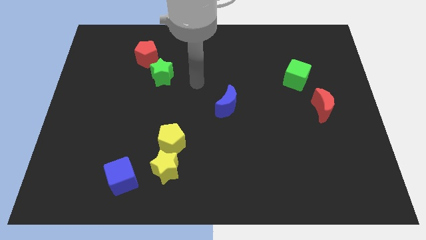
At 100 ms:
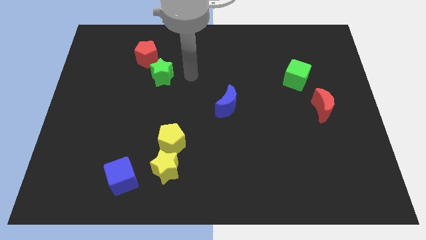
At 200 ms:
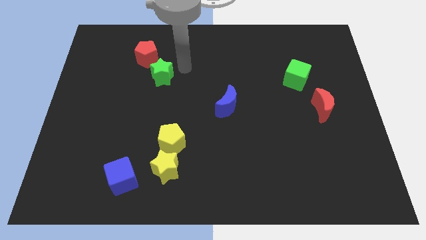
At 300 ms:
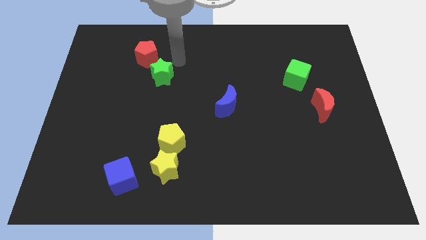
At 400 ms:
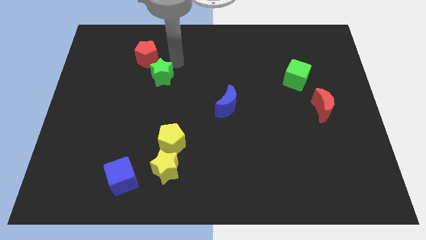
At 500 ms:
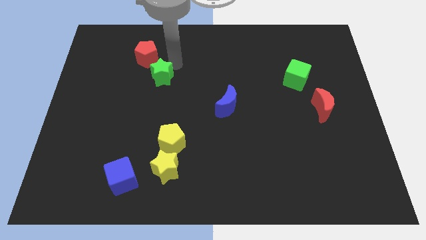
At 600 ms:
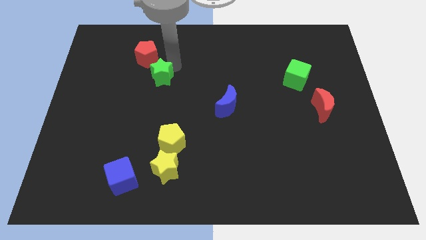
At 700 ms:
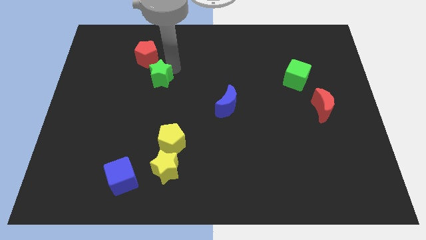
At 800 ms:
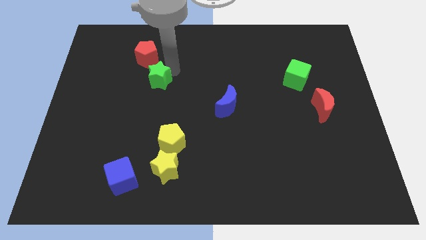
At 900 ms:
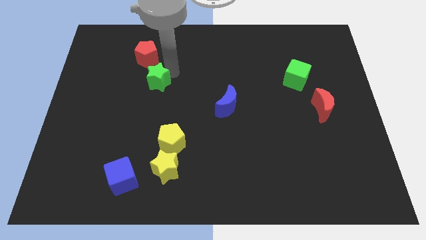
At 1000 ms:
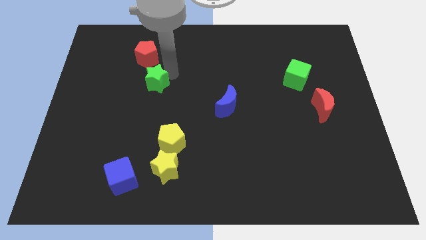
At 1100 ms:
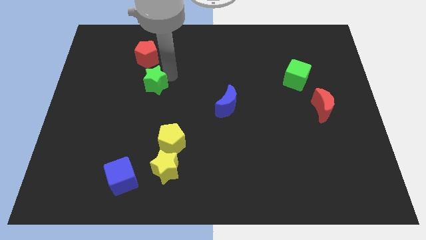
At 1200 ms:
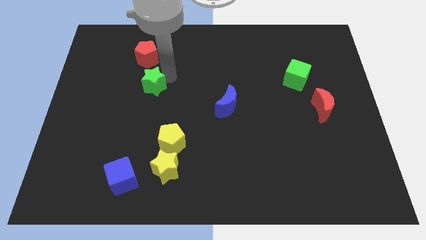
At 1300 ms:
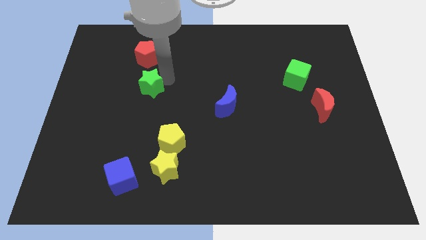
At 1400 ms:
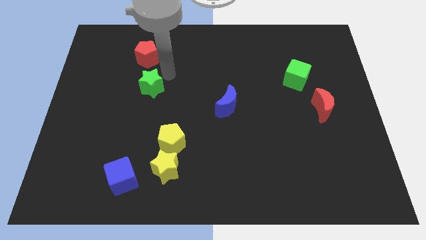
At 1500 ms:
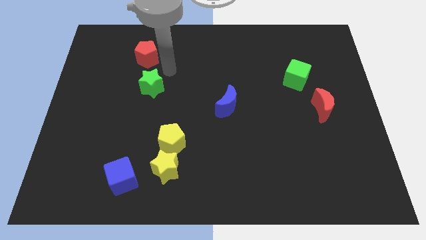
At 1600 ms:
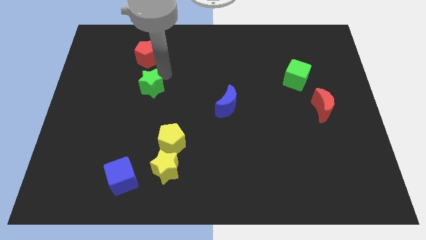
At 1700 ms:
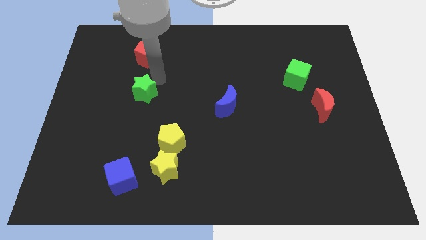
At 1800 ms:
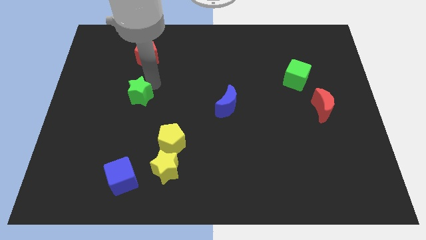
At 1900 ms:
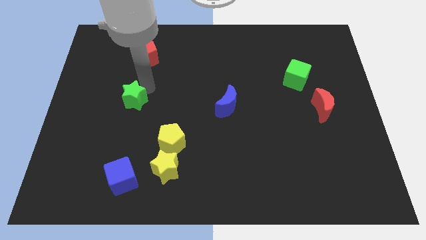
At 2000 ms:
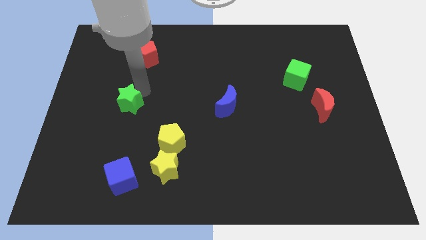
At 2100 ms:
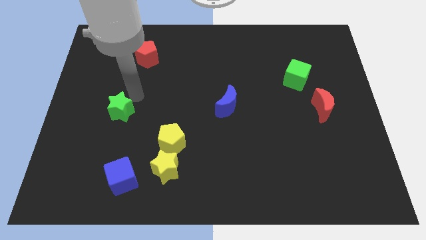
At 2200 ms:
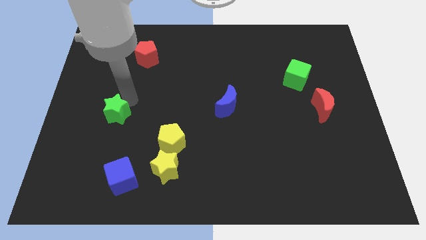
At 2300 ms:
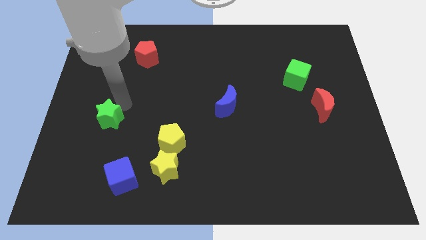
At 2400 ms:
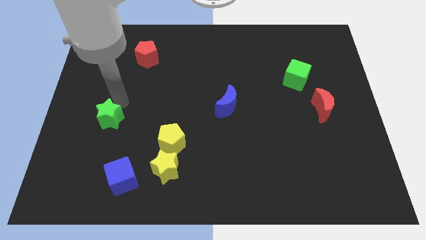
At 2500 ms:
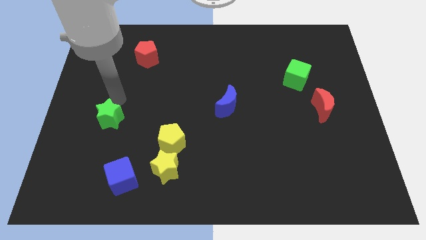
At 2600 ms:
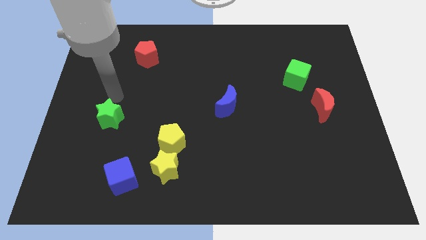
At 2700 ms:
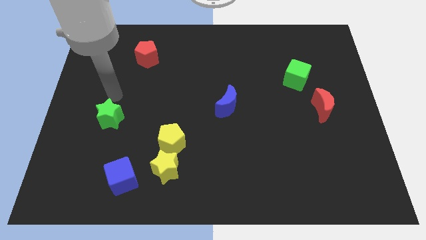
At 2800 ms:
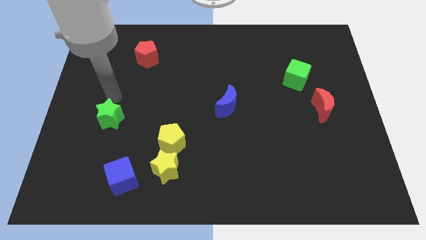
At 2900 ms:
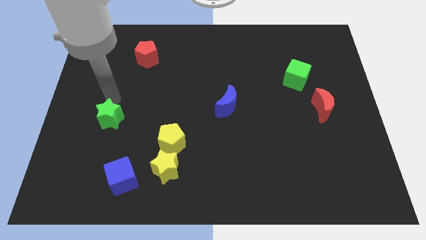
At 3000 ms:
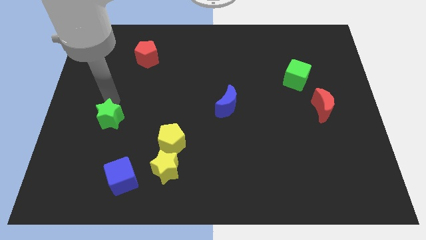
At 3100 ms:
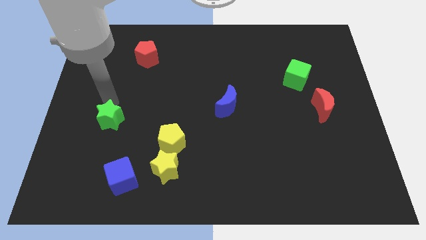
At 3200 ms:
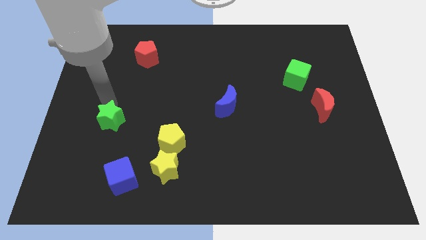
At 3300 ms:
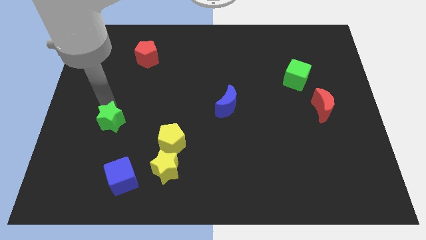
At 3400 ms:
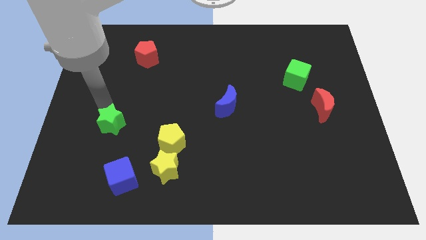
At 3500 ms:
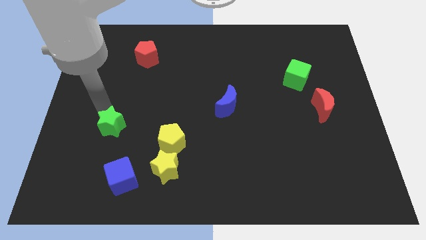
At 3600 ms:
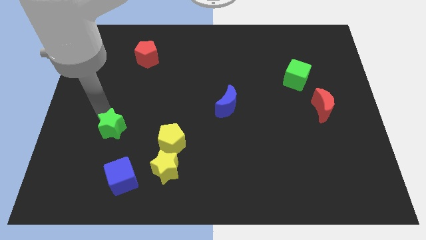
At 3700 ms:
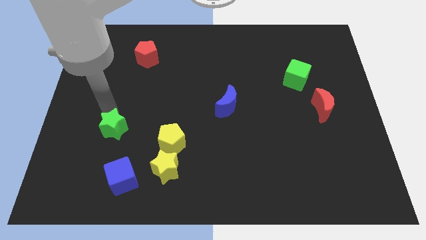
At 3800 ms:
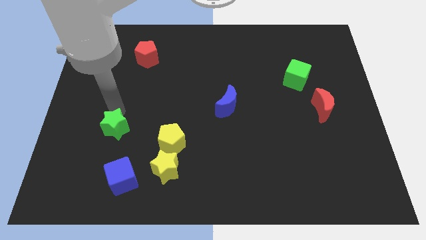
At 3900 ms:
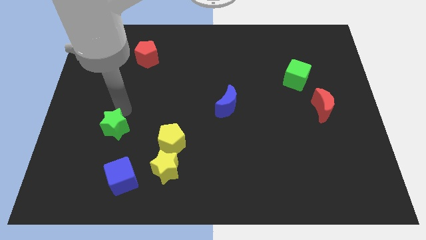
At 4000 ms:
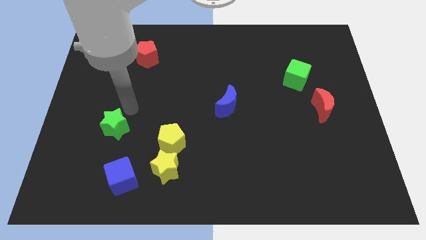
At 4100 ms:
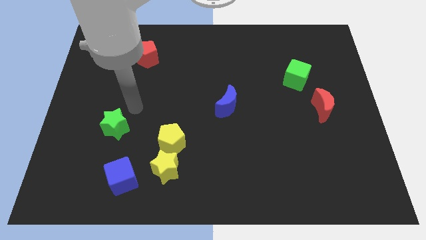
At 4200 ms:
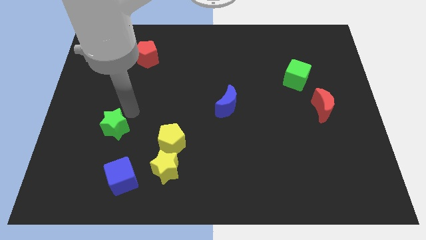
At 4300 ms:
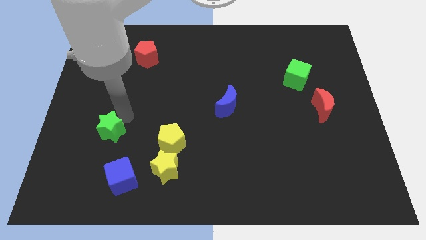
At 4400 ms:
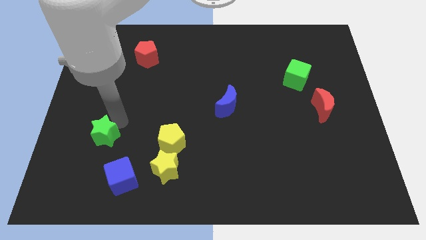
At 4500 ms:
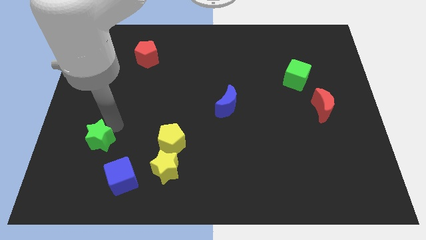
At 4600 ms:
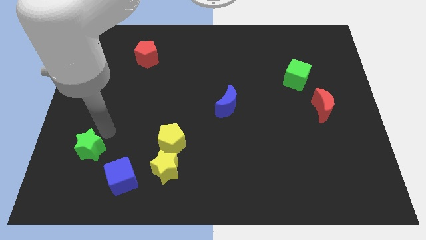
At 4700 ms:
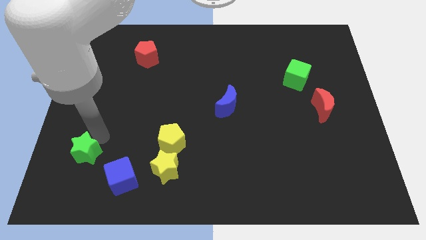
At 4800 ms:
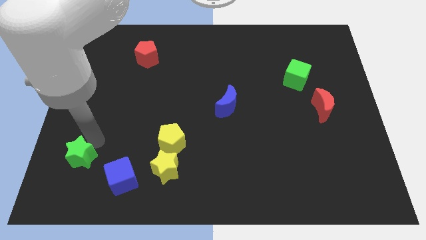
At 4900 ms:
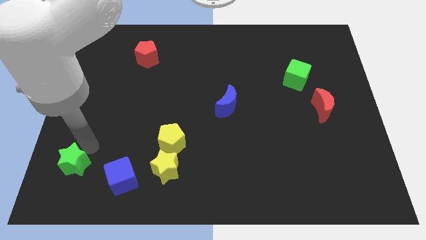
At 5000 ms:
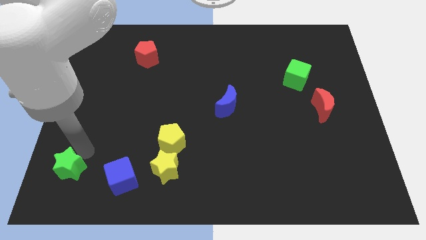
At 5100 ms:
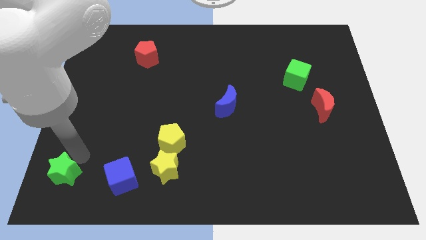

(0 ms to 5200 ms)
put the green star to the lower left corner
